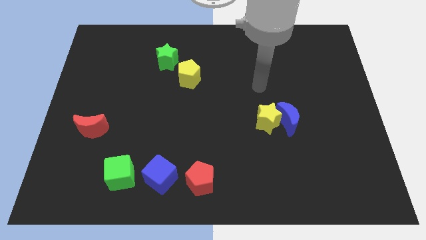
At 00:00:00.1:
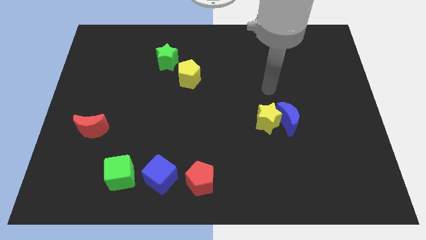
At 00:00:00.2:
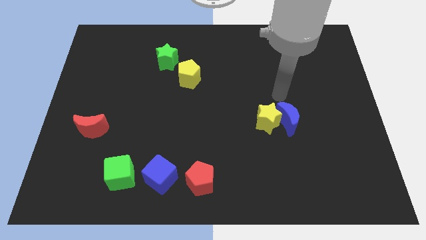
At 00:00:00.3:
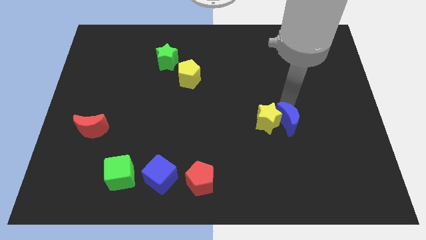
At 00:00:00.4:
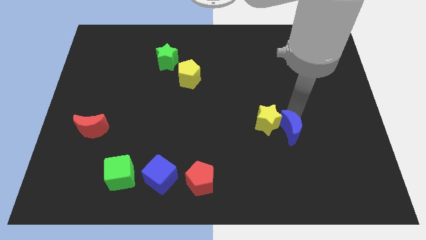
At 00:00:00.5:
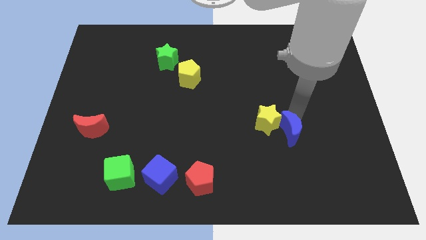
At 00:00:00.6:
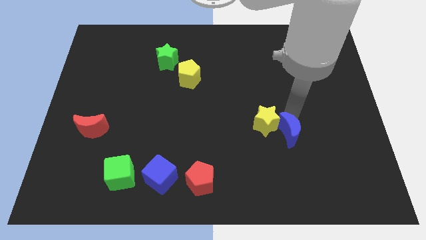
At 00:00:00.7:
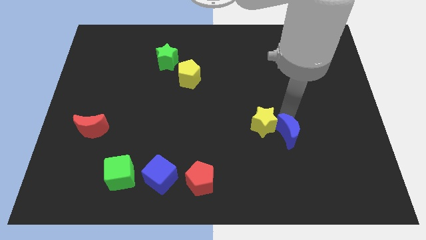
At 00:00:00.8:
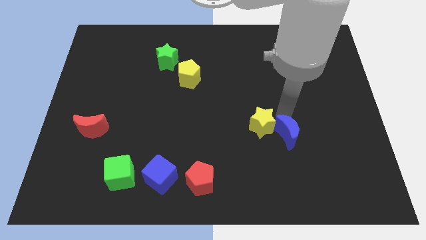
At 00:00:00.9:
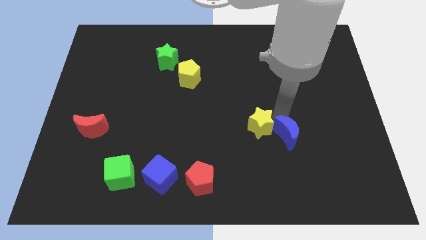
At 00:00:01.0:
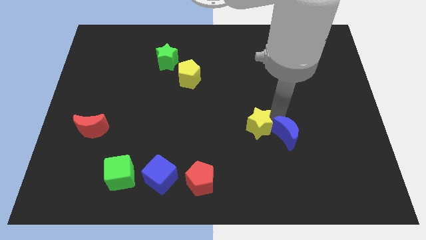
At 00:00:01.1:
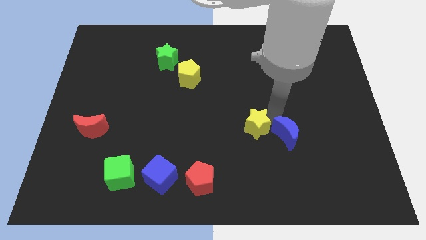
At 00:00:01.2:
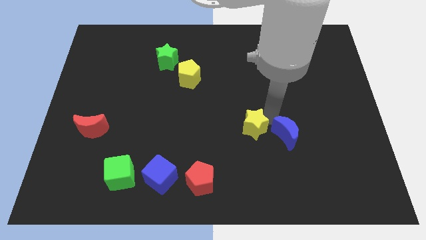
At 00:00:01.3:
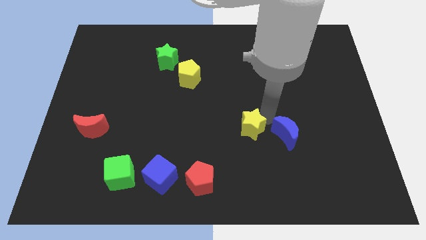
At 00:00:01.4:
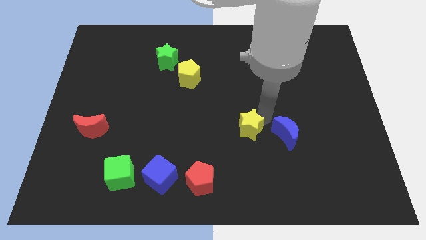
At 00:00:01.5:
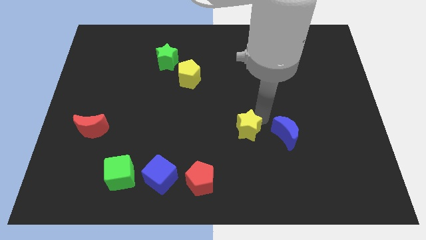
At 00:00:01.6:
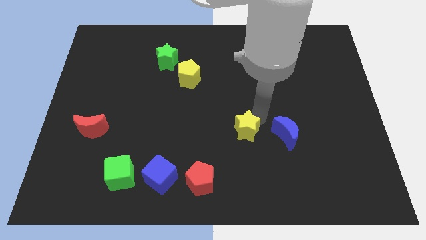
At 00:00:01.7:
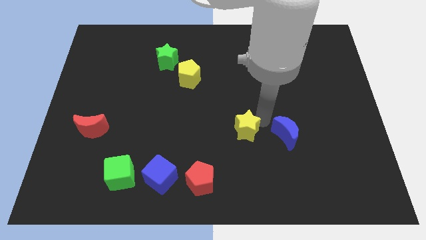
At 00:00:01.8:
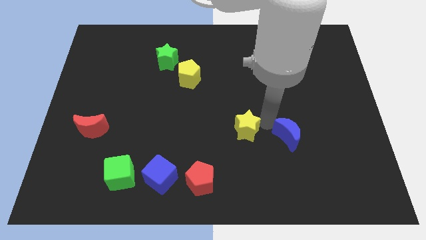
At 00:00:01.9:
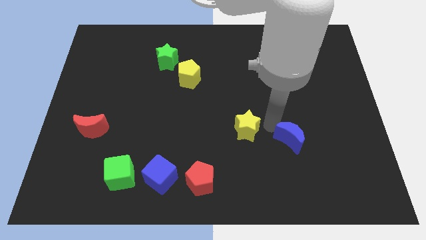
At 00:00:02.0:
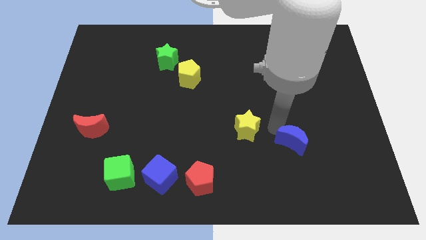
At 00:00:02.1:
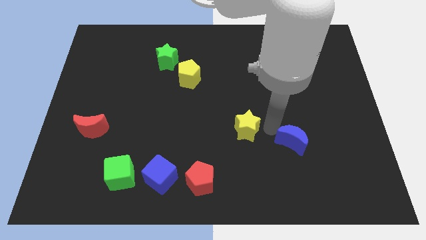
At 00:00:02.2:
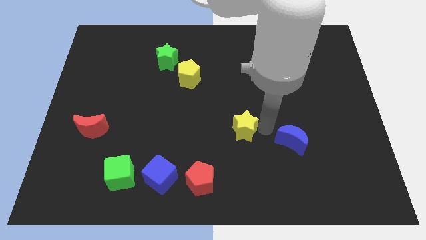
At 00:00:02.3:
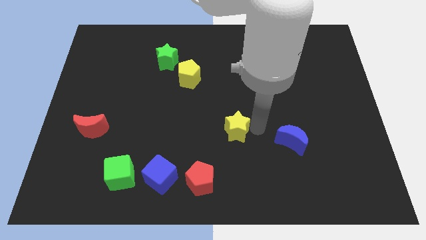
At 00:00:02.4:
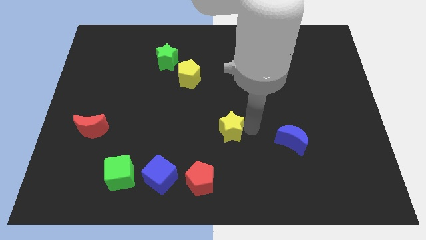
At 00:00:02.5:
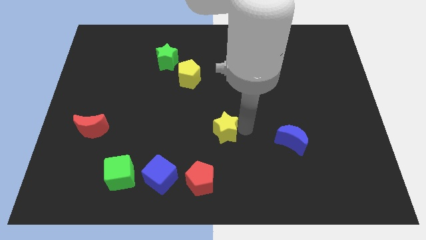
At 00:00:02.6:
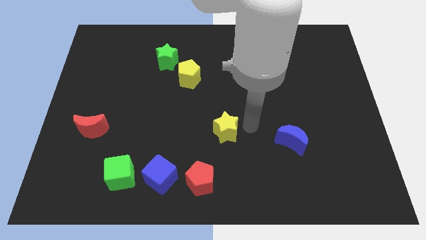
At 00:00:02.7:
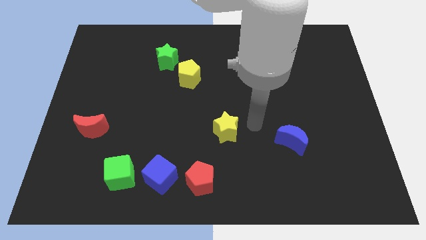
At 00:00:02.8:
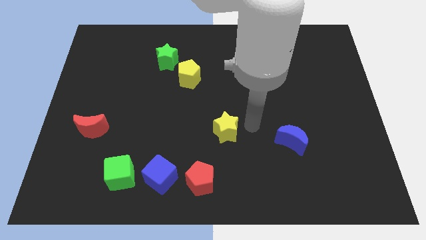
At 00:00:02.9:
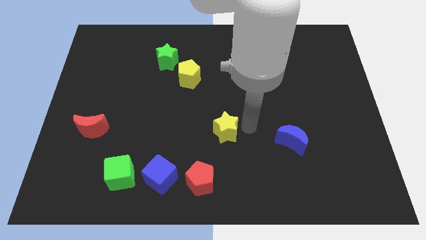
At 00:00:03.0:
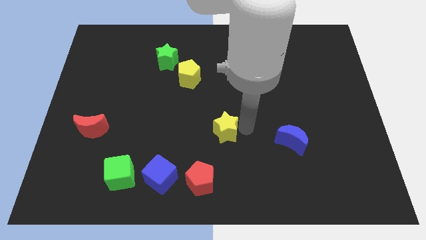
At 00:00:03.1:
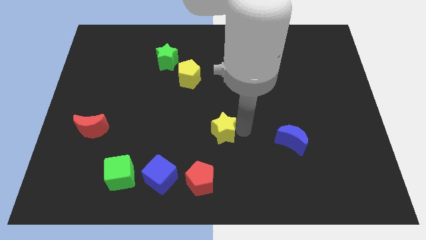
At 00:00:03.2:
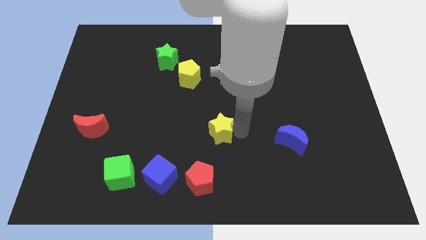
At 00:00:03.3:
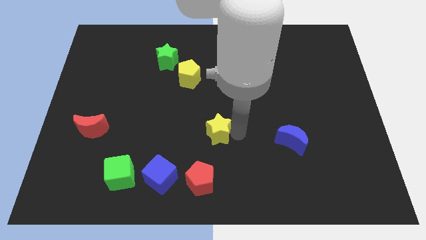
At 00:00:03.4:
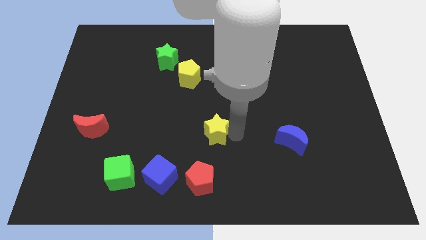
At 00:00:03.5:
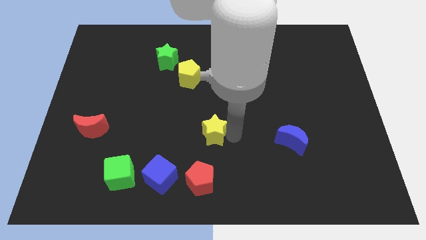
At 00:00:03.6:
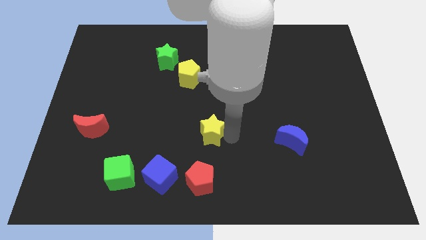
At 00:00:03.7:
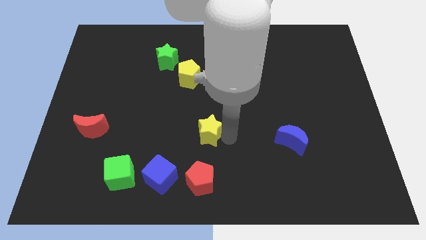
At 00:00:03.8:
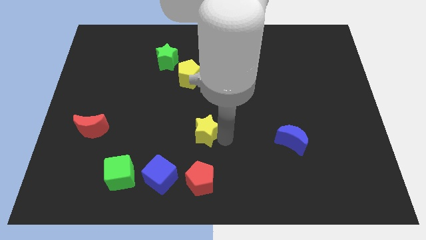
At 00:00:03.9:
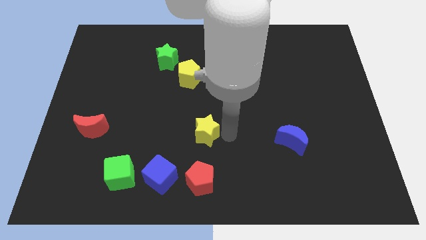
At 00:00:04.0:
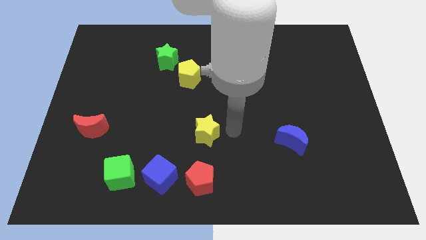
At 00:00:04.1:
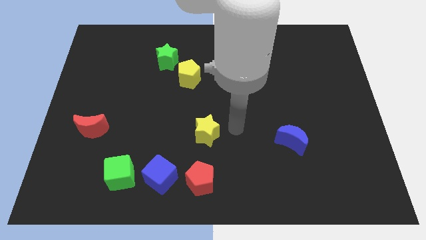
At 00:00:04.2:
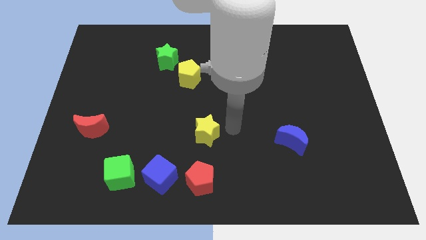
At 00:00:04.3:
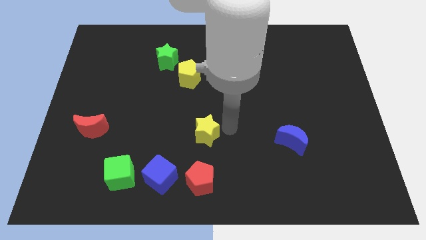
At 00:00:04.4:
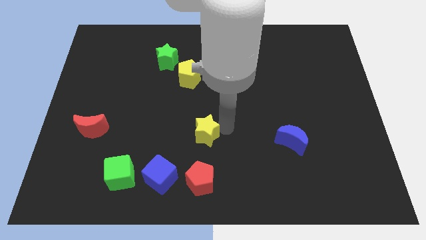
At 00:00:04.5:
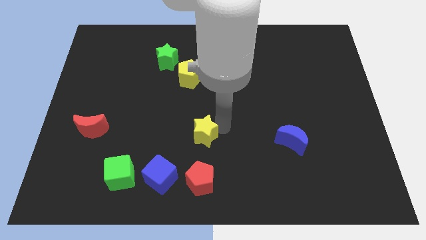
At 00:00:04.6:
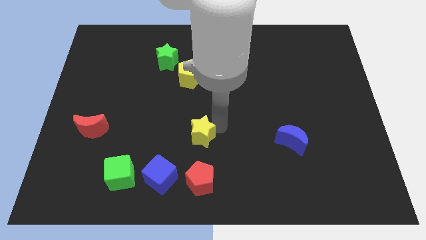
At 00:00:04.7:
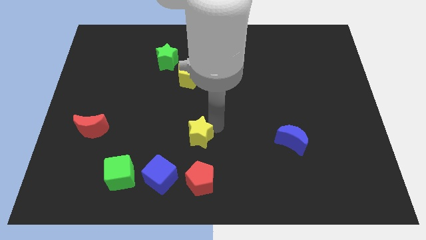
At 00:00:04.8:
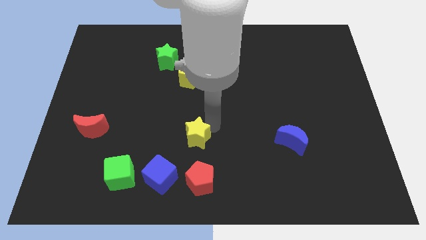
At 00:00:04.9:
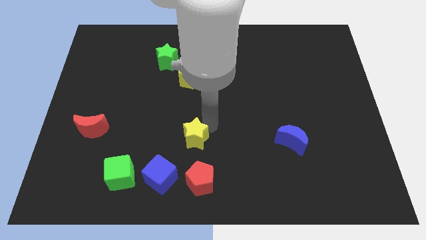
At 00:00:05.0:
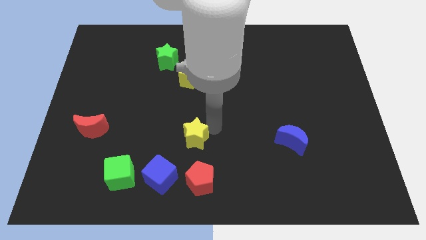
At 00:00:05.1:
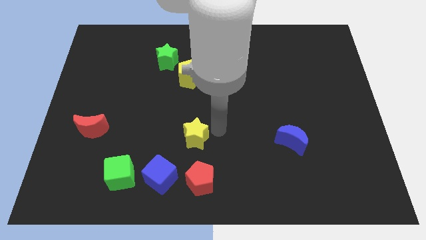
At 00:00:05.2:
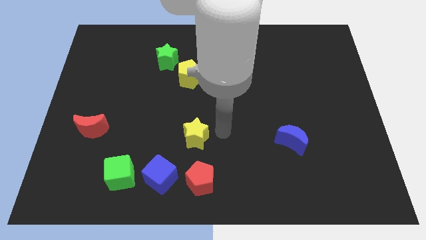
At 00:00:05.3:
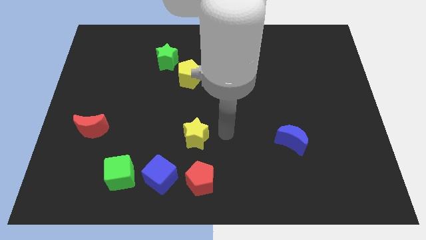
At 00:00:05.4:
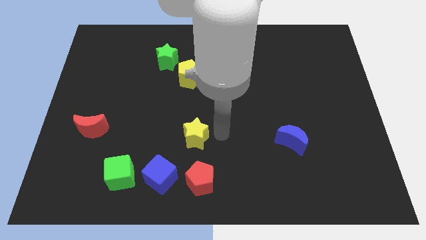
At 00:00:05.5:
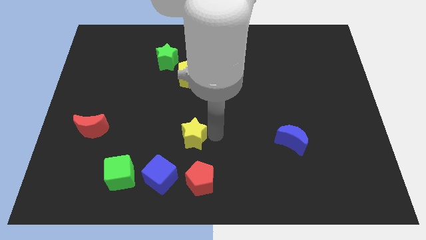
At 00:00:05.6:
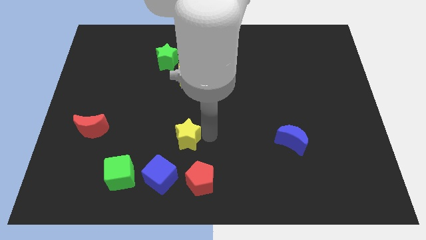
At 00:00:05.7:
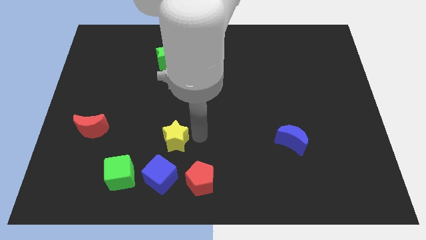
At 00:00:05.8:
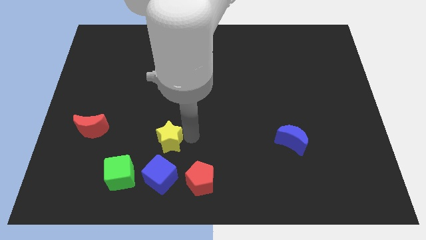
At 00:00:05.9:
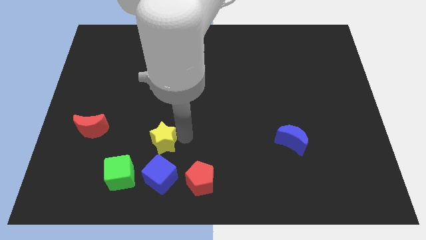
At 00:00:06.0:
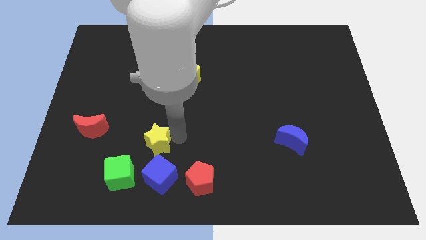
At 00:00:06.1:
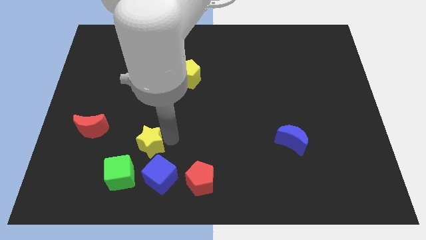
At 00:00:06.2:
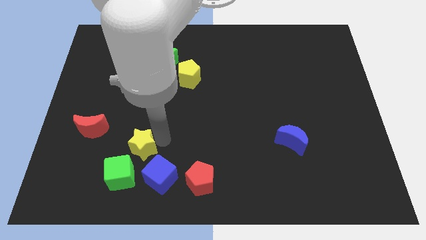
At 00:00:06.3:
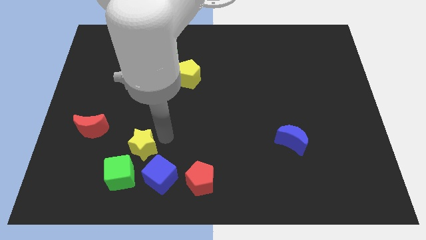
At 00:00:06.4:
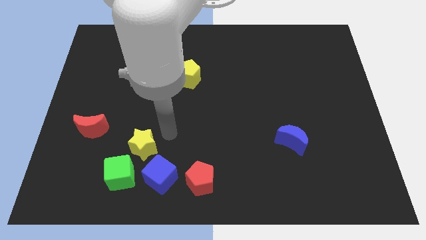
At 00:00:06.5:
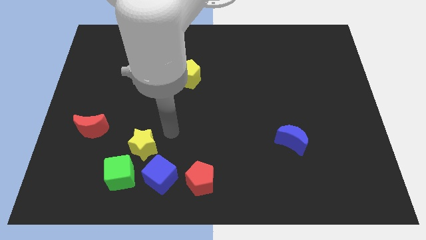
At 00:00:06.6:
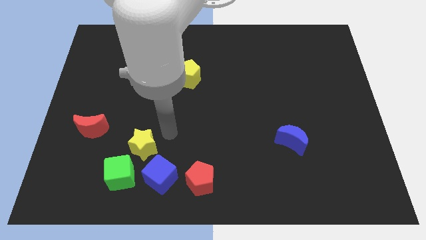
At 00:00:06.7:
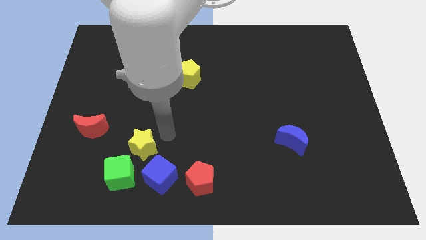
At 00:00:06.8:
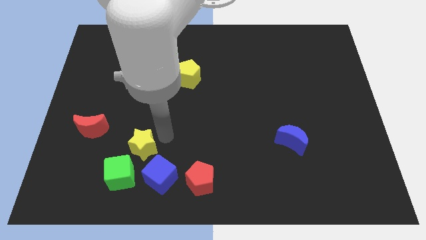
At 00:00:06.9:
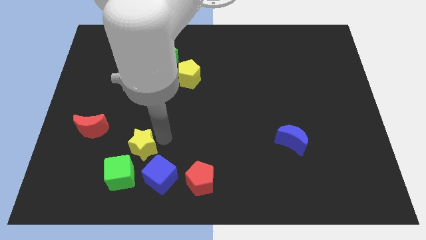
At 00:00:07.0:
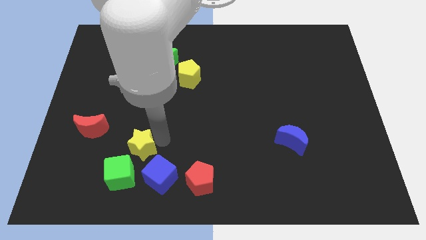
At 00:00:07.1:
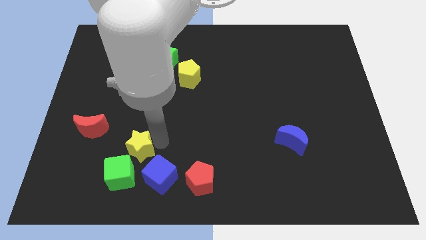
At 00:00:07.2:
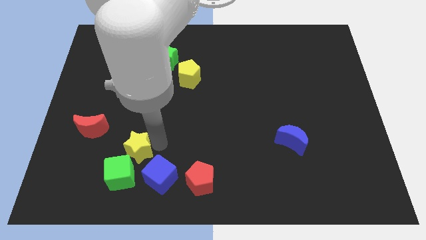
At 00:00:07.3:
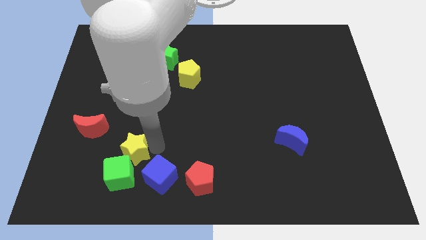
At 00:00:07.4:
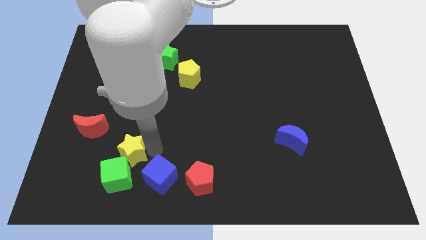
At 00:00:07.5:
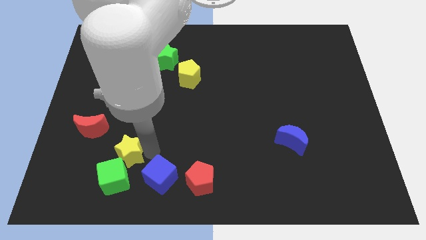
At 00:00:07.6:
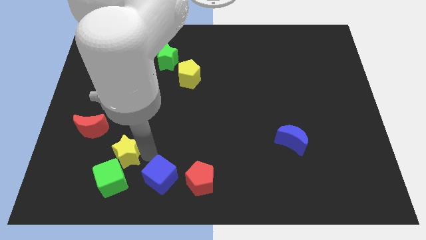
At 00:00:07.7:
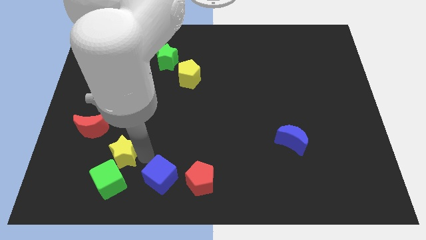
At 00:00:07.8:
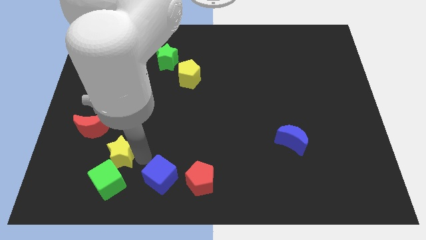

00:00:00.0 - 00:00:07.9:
move the yellow star to the left side of the blue cube
